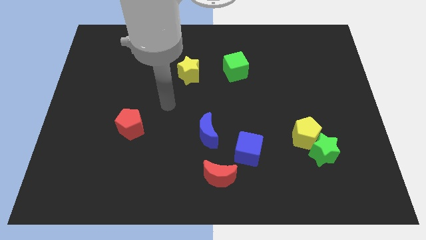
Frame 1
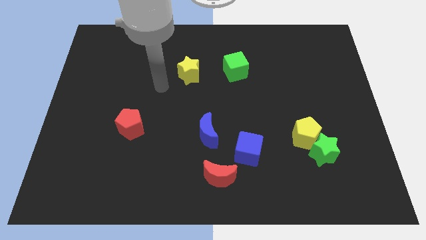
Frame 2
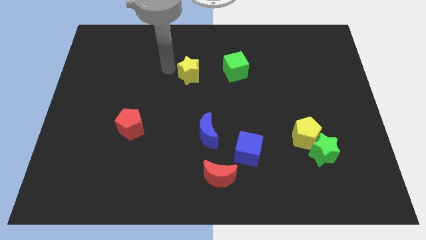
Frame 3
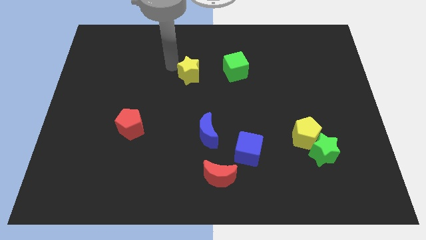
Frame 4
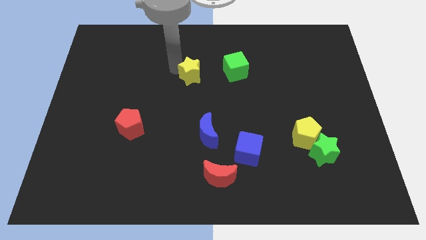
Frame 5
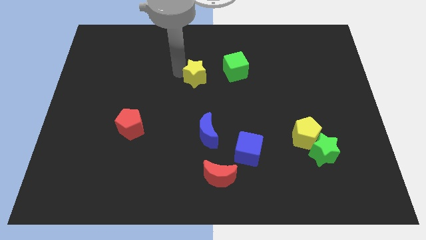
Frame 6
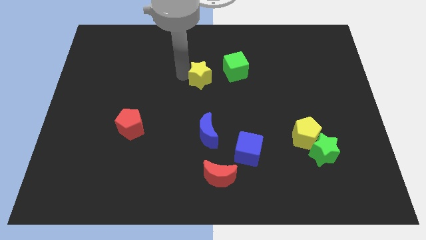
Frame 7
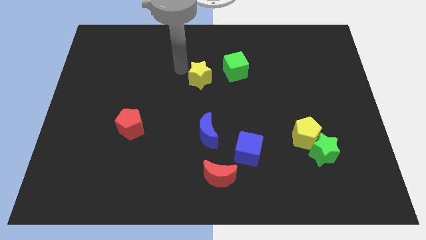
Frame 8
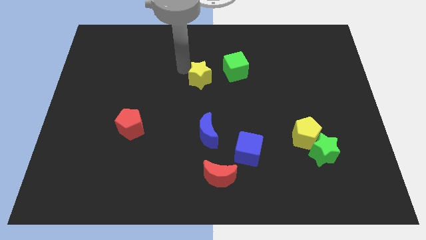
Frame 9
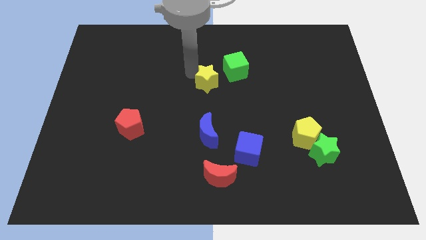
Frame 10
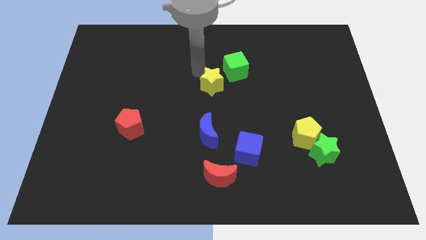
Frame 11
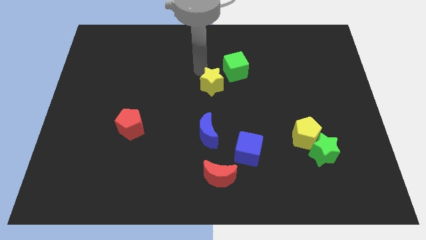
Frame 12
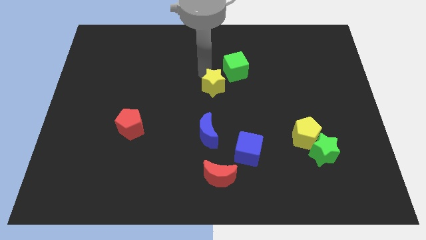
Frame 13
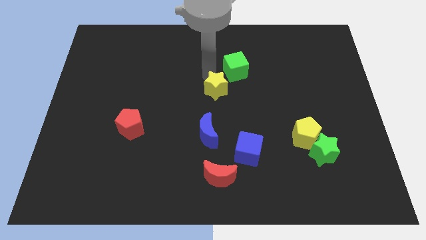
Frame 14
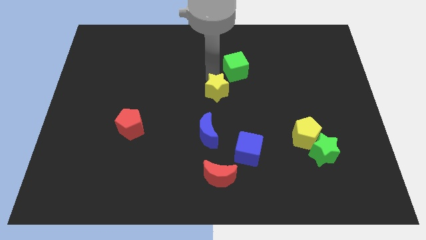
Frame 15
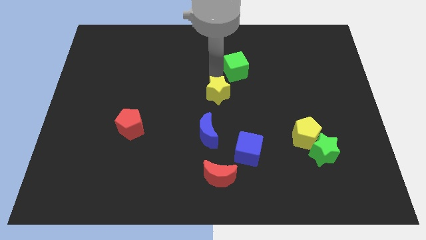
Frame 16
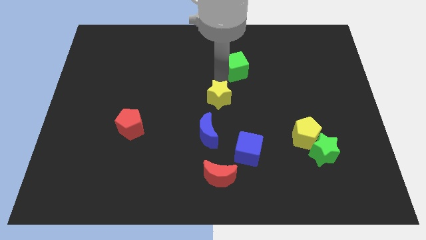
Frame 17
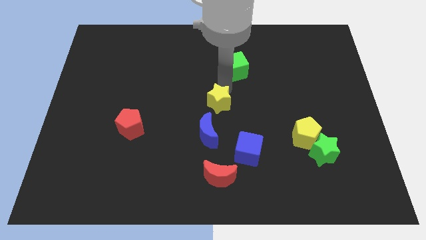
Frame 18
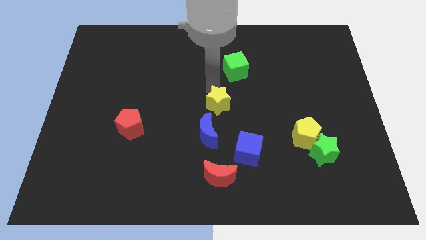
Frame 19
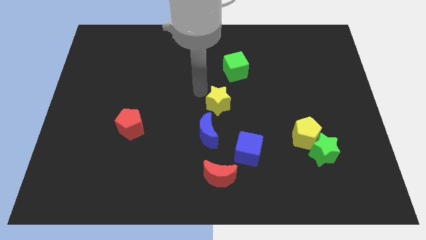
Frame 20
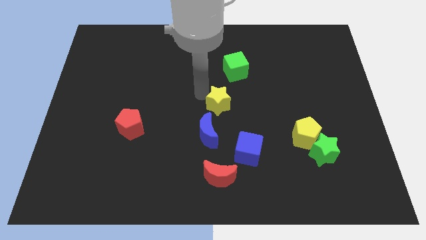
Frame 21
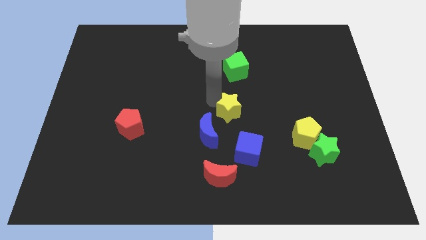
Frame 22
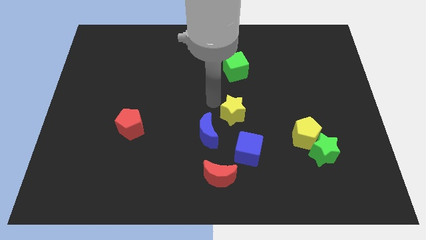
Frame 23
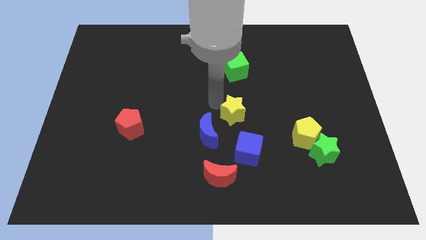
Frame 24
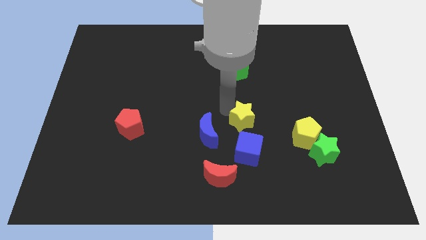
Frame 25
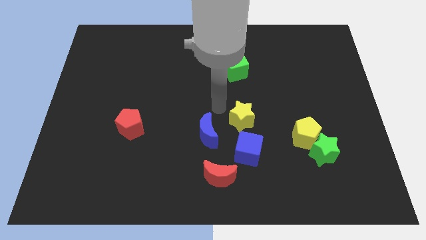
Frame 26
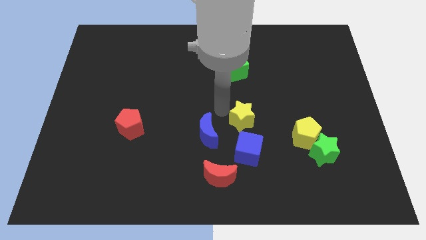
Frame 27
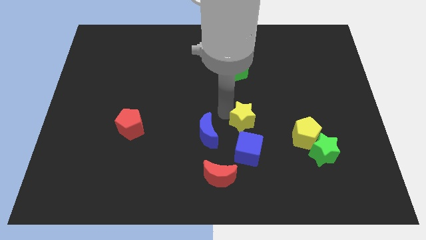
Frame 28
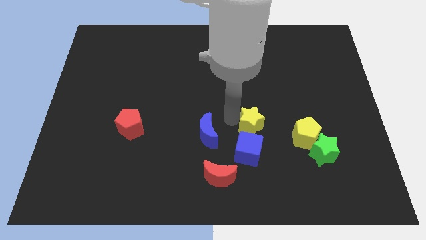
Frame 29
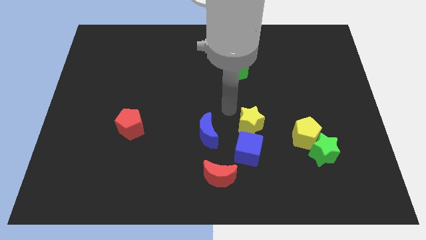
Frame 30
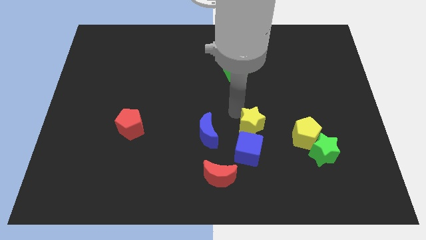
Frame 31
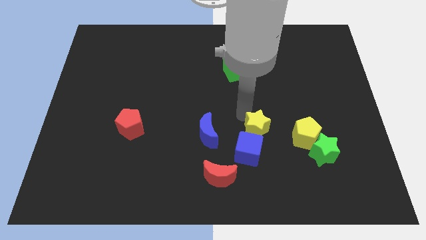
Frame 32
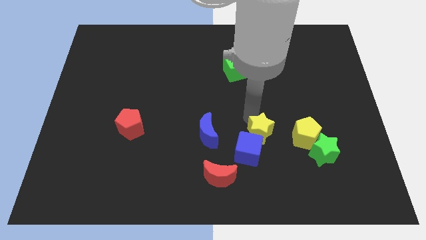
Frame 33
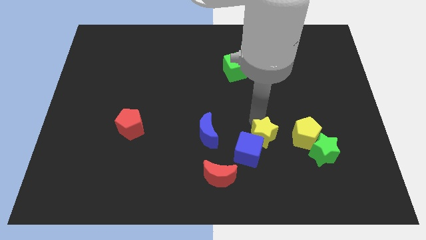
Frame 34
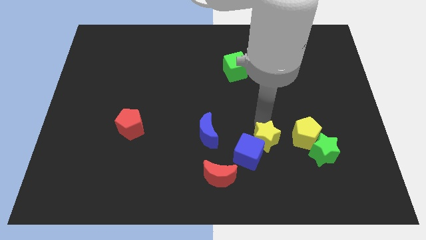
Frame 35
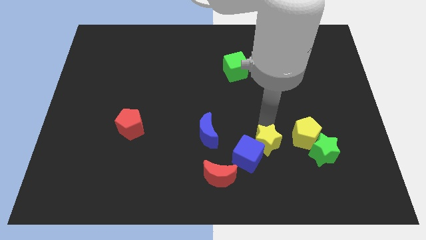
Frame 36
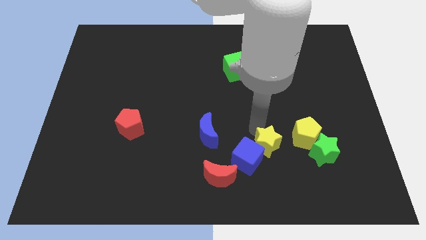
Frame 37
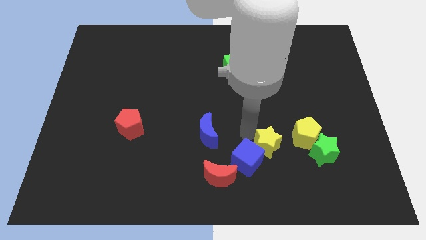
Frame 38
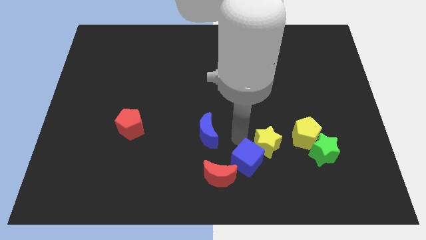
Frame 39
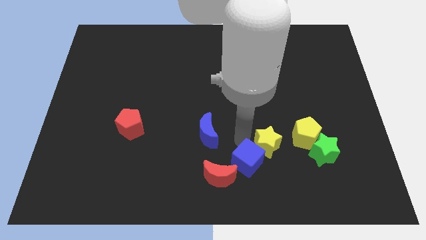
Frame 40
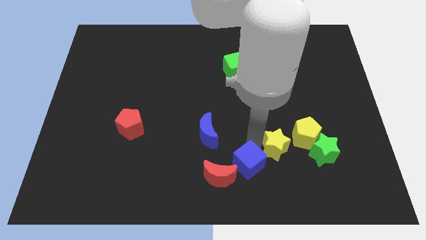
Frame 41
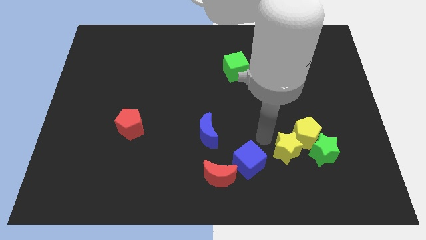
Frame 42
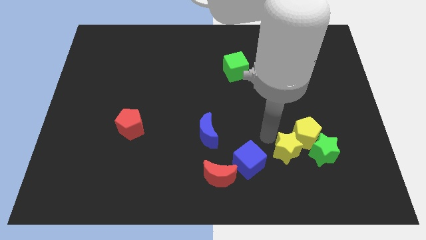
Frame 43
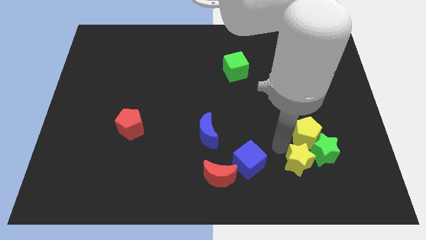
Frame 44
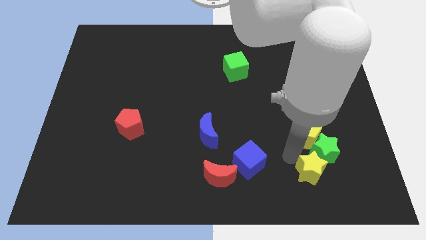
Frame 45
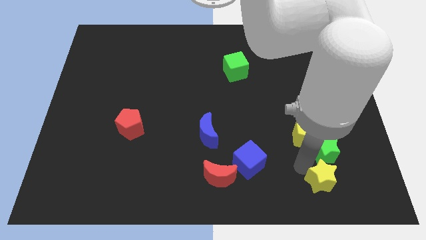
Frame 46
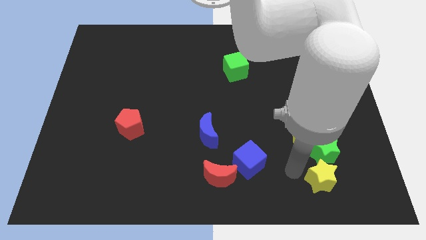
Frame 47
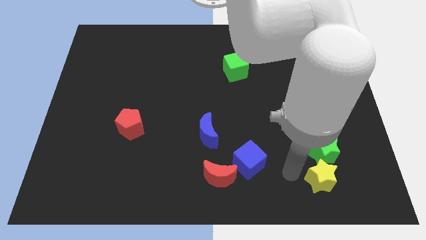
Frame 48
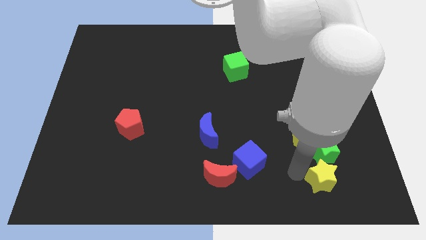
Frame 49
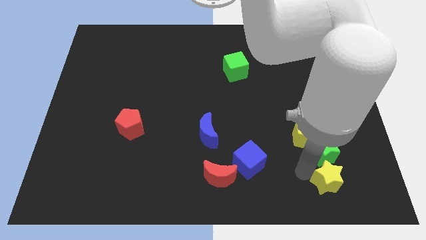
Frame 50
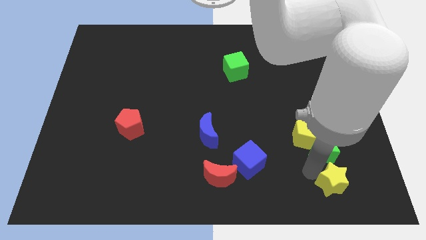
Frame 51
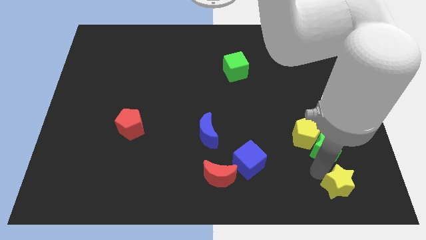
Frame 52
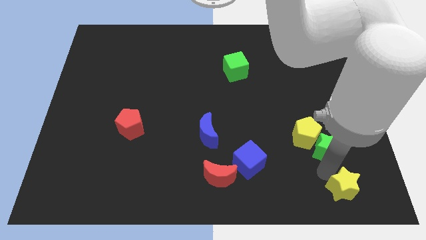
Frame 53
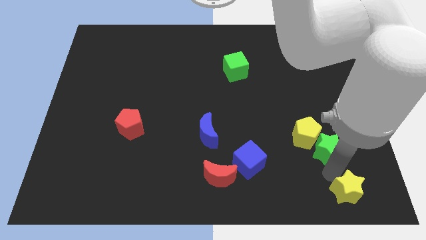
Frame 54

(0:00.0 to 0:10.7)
move the yellow star to the bottom right of the board

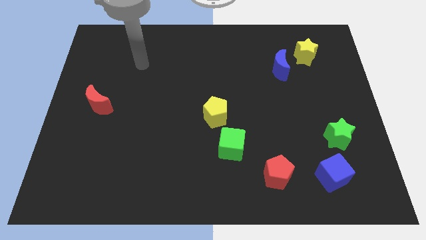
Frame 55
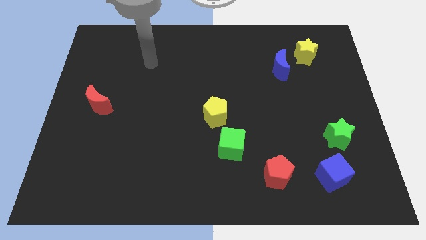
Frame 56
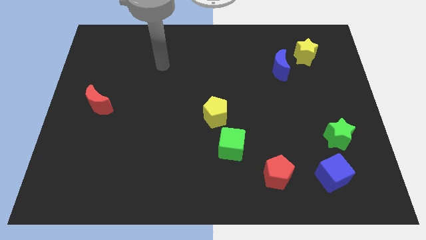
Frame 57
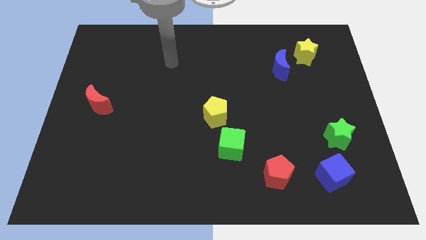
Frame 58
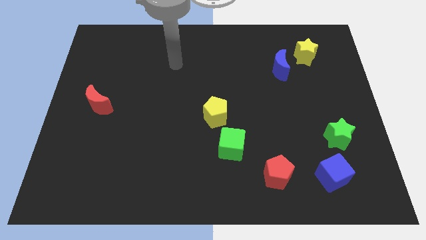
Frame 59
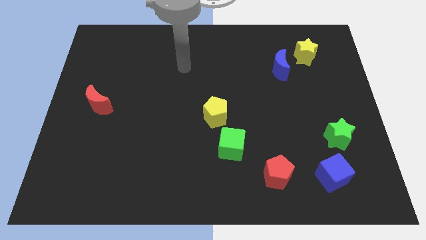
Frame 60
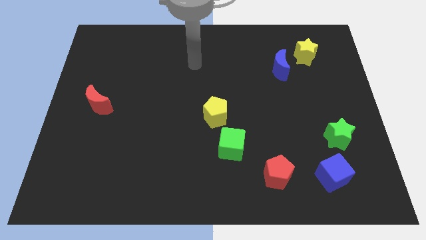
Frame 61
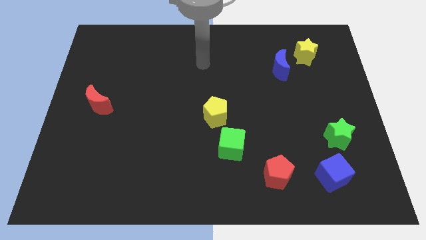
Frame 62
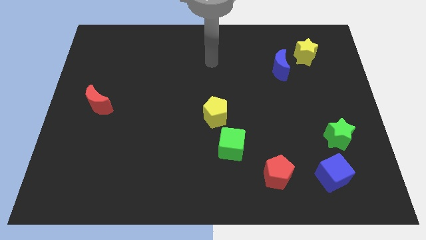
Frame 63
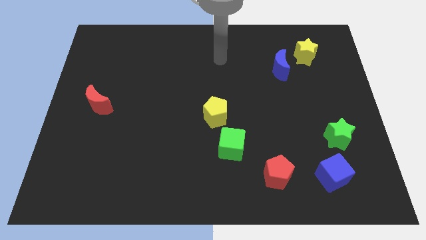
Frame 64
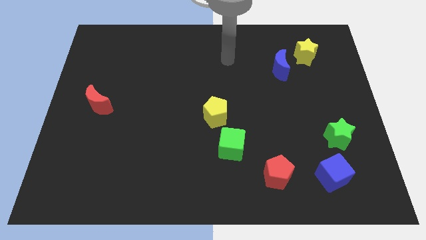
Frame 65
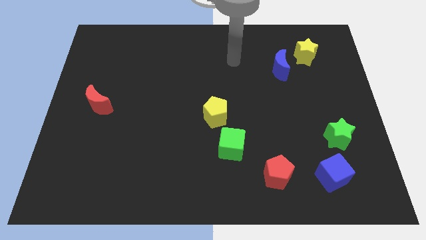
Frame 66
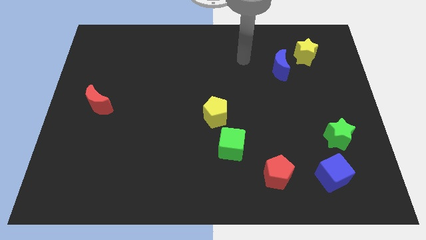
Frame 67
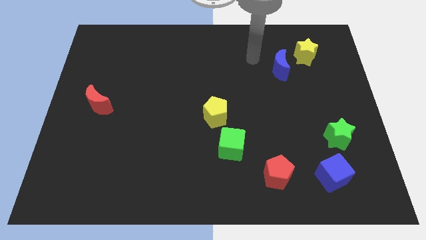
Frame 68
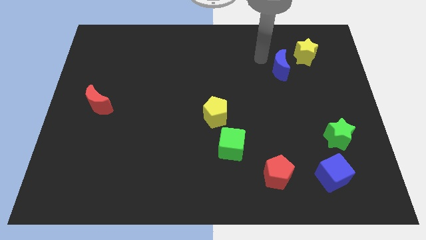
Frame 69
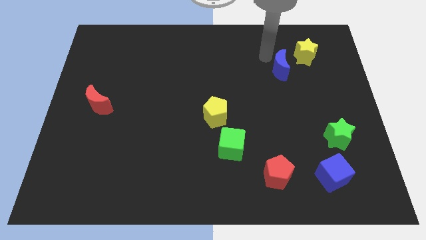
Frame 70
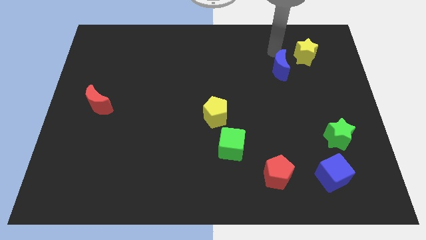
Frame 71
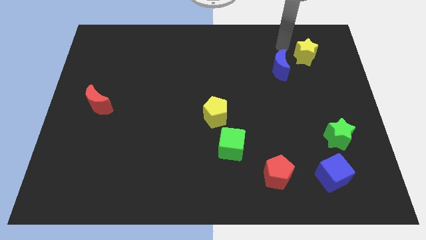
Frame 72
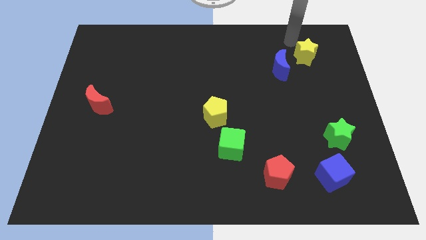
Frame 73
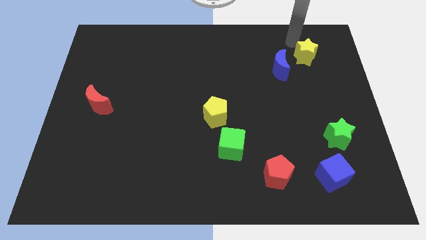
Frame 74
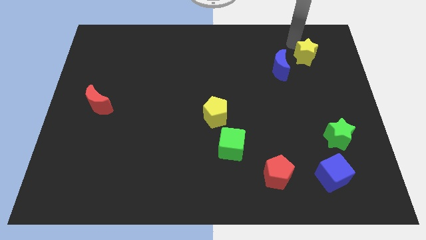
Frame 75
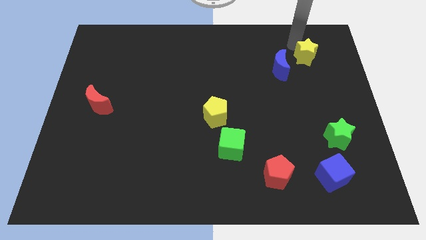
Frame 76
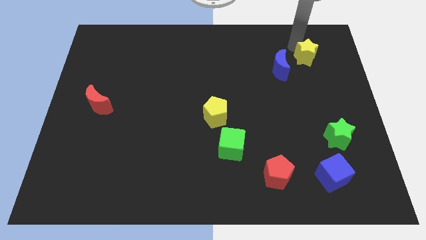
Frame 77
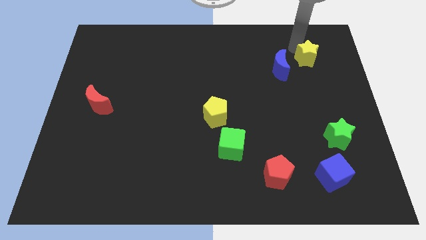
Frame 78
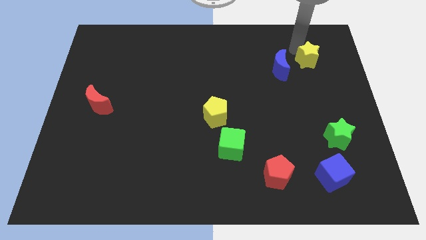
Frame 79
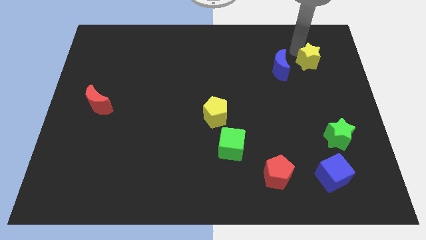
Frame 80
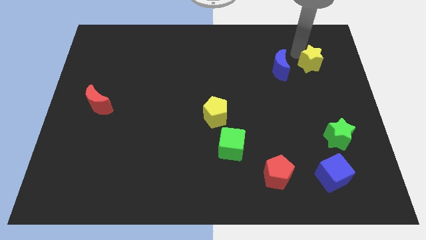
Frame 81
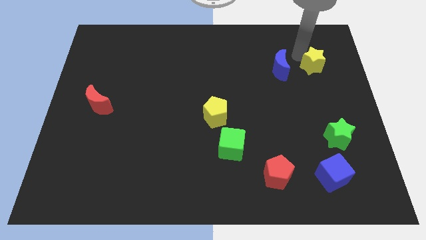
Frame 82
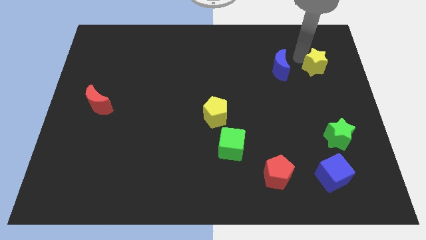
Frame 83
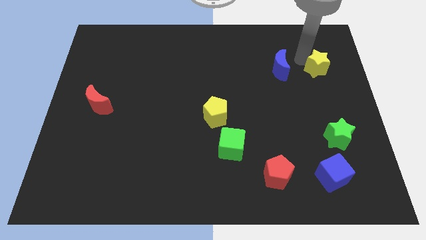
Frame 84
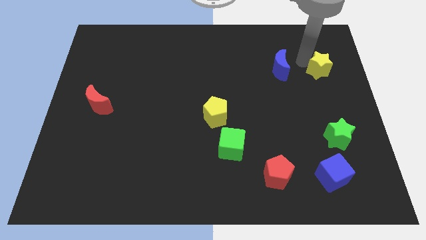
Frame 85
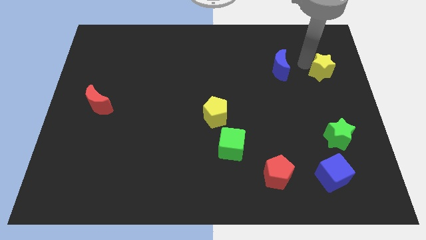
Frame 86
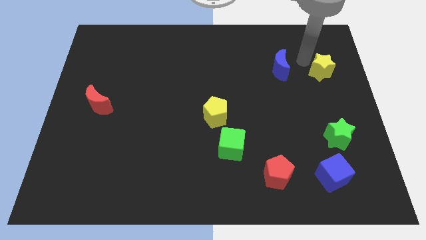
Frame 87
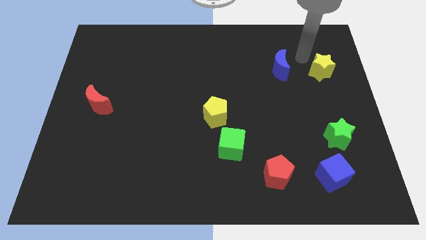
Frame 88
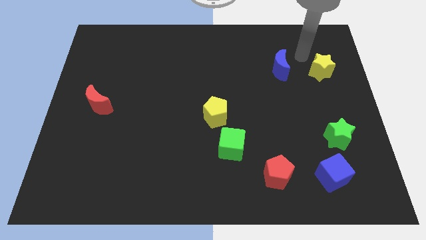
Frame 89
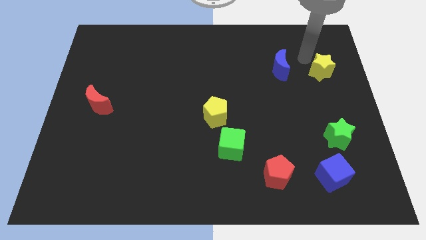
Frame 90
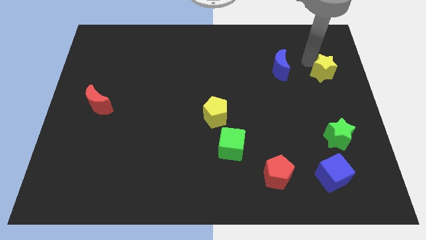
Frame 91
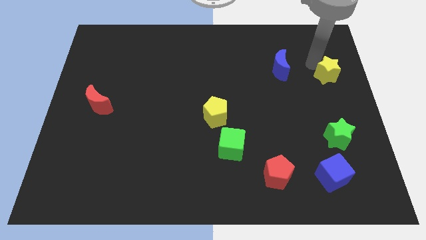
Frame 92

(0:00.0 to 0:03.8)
move the yellow star to the right side
